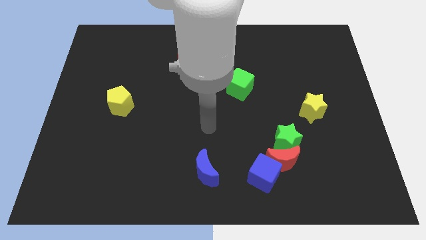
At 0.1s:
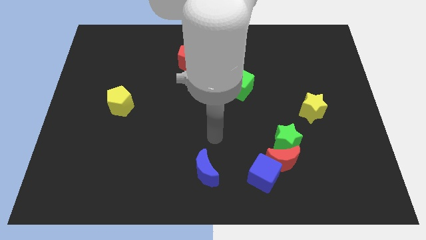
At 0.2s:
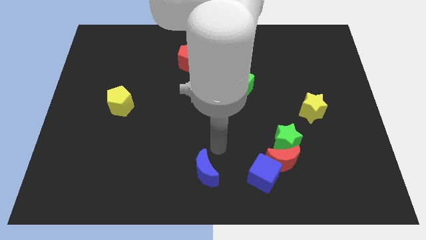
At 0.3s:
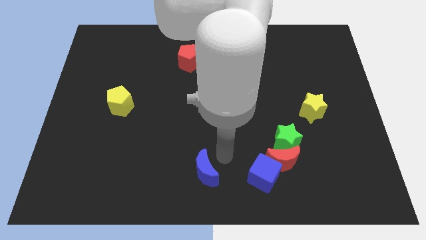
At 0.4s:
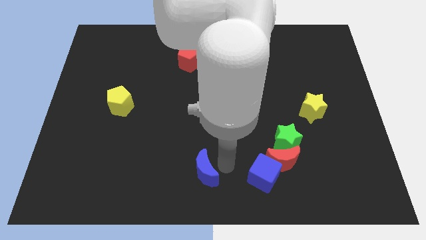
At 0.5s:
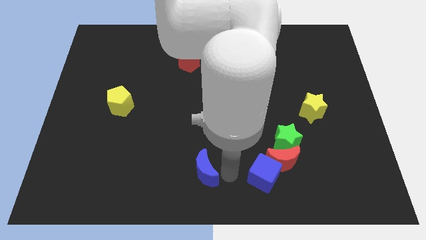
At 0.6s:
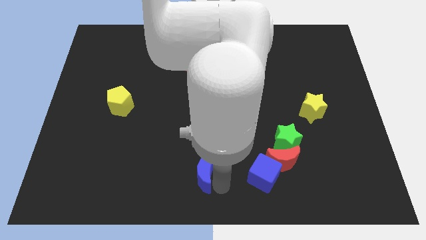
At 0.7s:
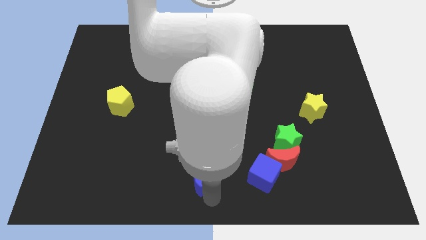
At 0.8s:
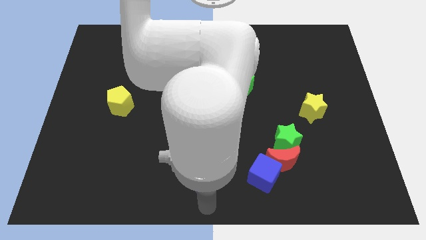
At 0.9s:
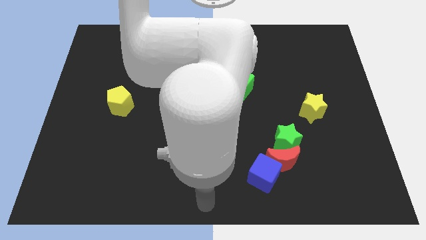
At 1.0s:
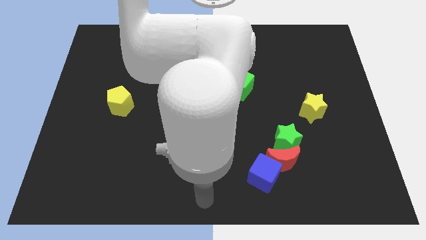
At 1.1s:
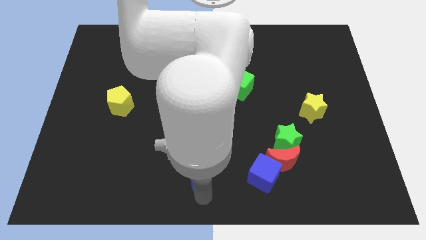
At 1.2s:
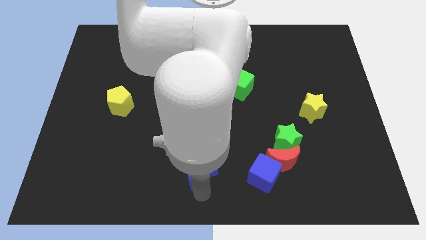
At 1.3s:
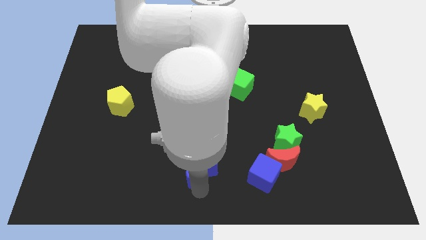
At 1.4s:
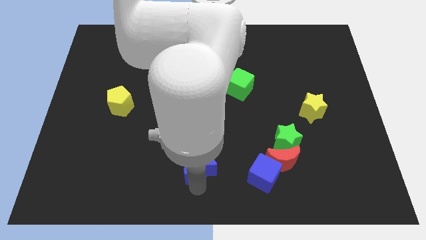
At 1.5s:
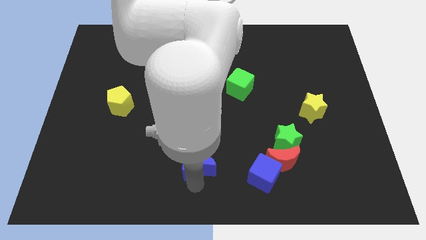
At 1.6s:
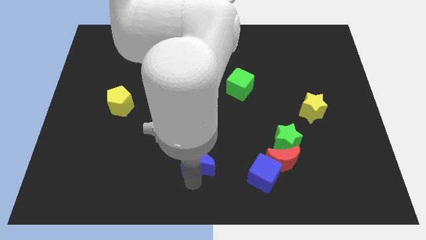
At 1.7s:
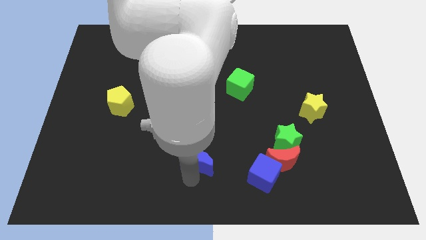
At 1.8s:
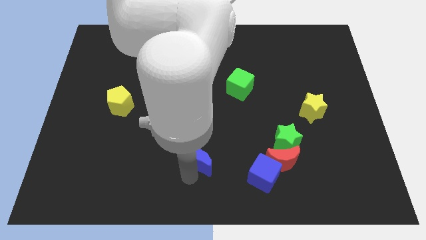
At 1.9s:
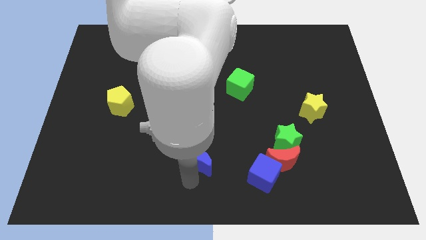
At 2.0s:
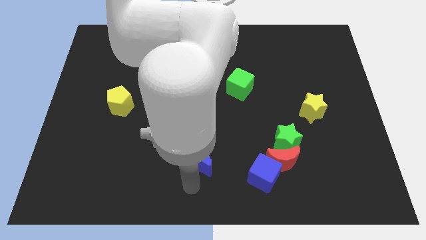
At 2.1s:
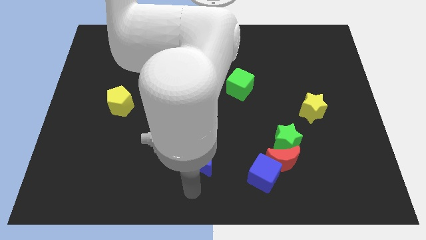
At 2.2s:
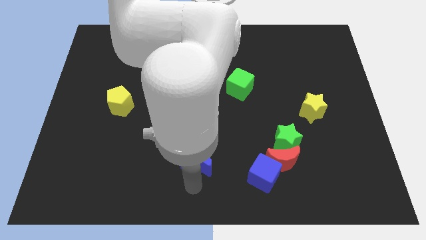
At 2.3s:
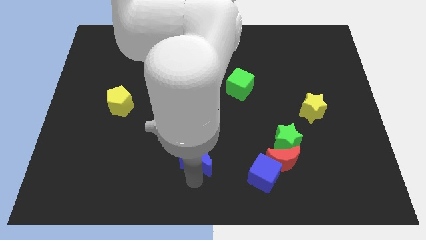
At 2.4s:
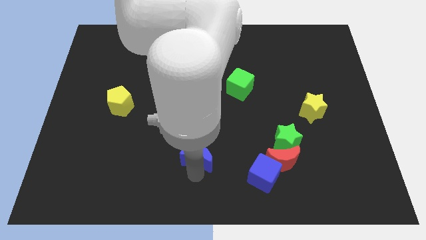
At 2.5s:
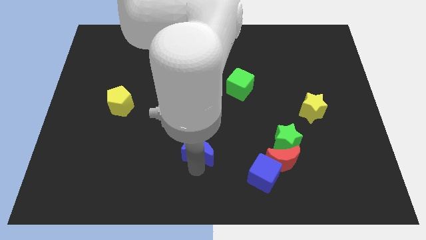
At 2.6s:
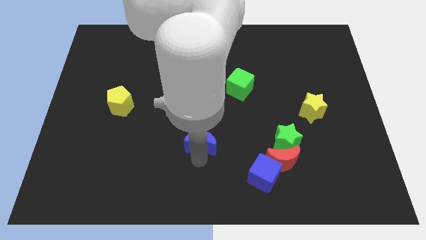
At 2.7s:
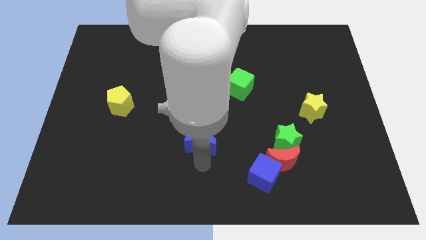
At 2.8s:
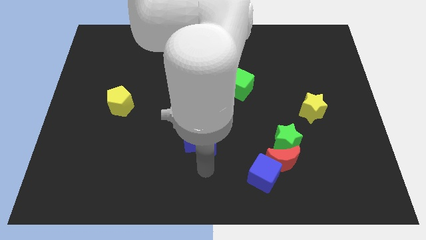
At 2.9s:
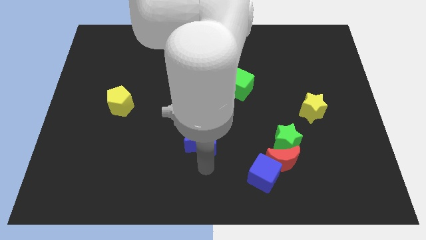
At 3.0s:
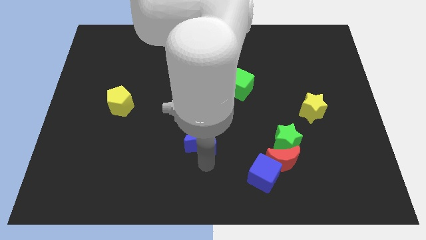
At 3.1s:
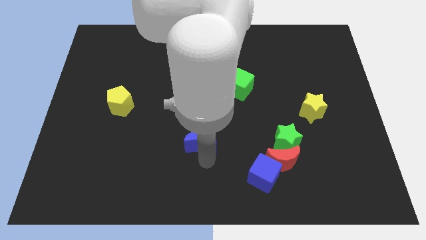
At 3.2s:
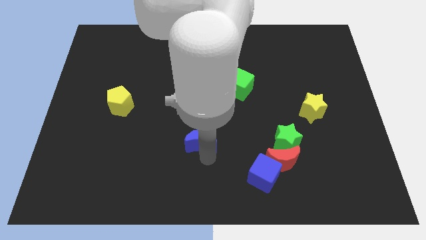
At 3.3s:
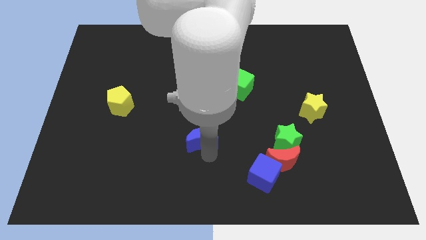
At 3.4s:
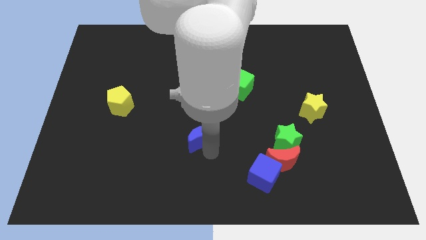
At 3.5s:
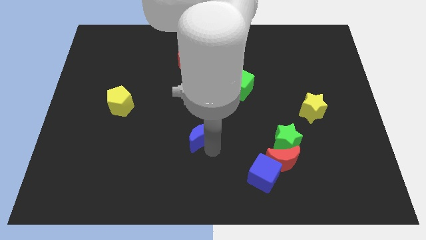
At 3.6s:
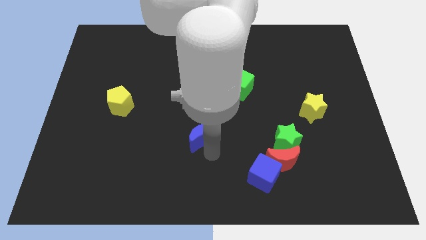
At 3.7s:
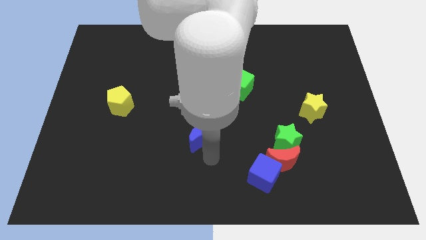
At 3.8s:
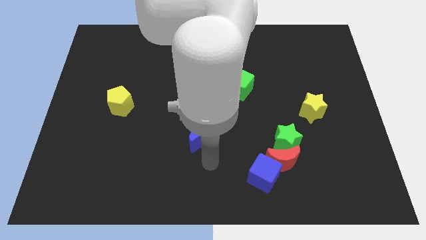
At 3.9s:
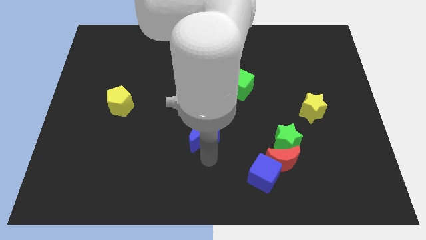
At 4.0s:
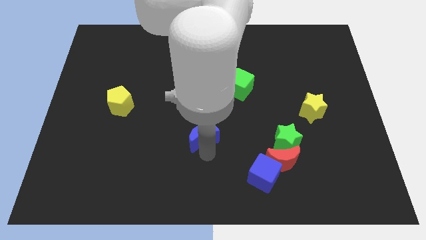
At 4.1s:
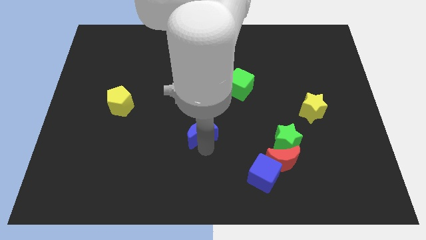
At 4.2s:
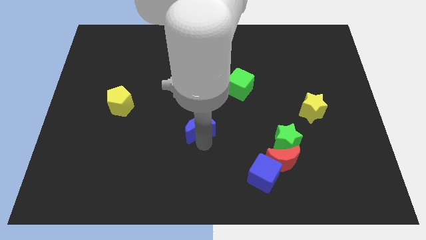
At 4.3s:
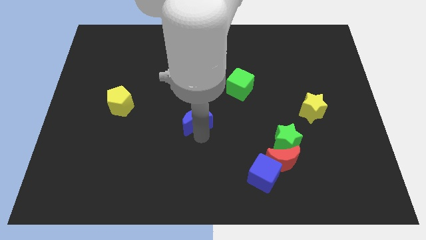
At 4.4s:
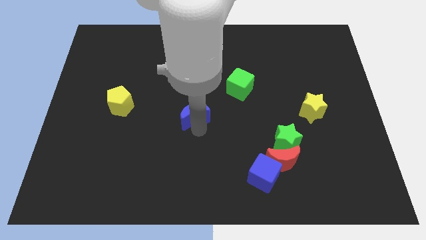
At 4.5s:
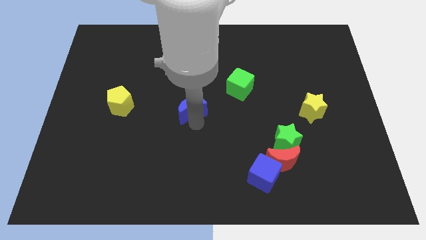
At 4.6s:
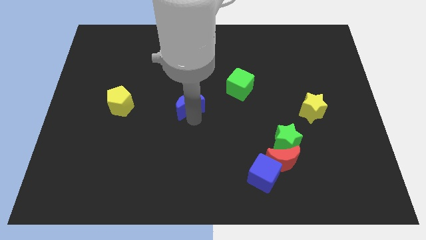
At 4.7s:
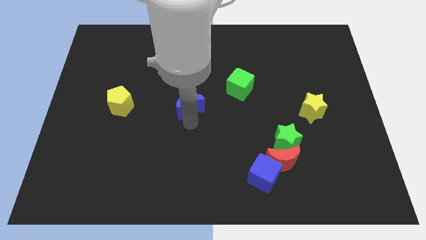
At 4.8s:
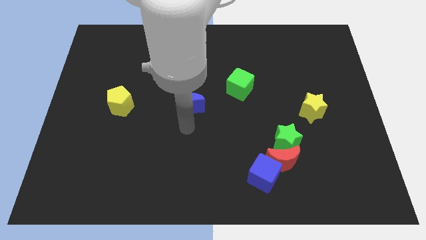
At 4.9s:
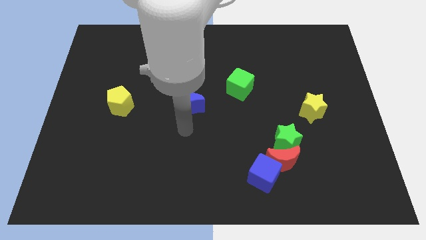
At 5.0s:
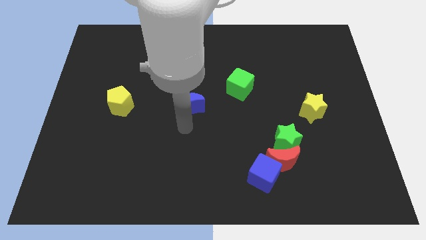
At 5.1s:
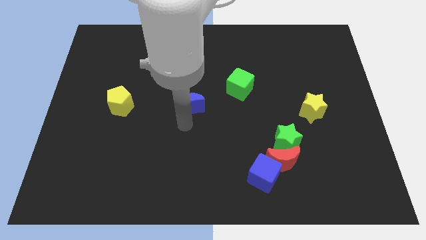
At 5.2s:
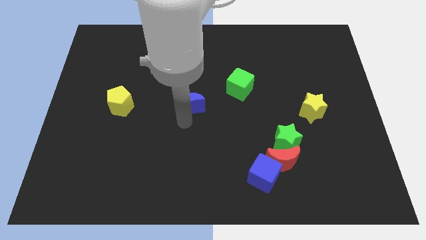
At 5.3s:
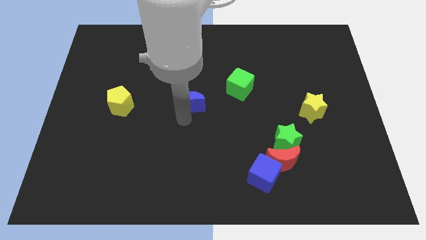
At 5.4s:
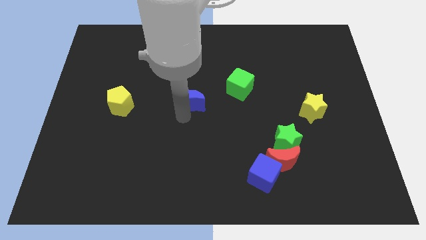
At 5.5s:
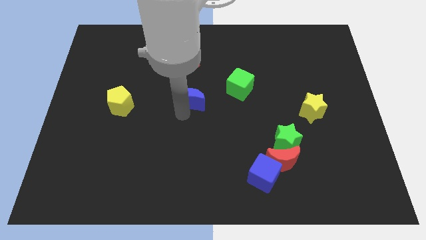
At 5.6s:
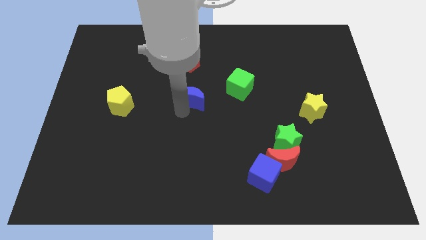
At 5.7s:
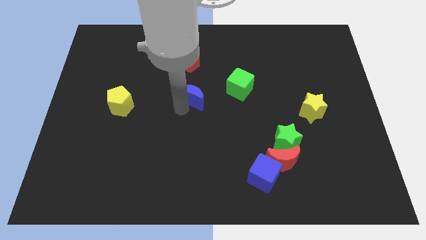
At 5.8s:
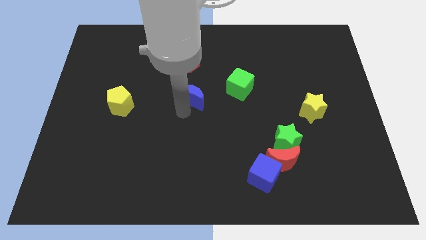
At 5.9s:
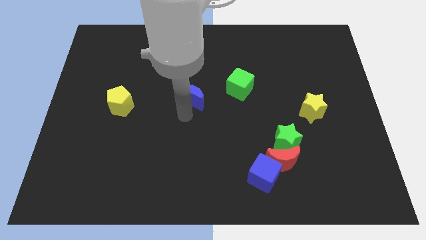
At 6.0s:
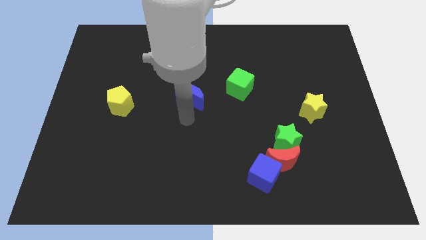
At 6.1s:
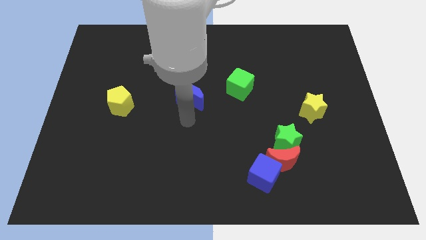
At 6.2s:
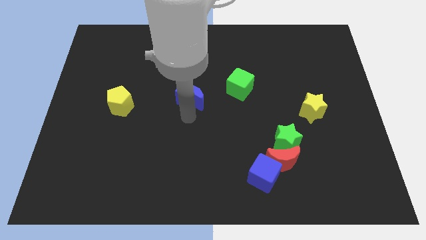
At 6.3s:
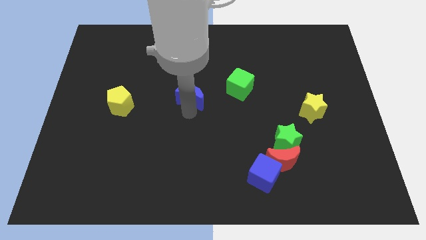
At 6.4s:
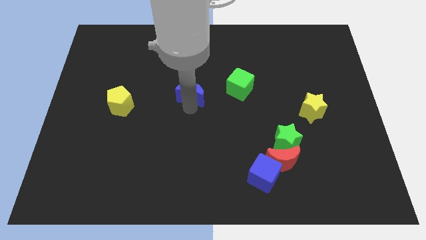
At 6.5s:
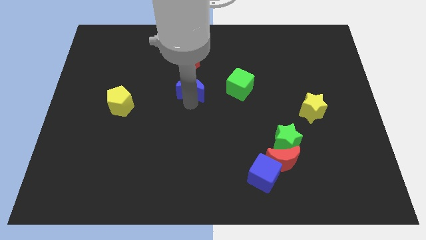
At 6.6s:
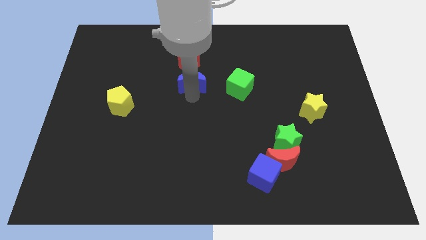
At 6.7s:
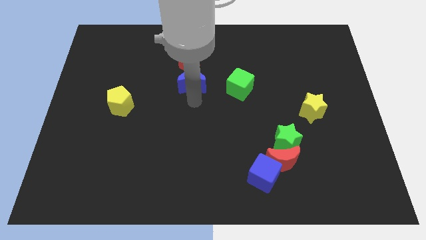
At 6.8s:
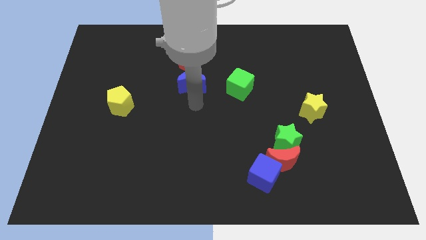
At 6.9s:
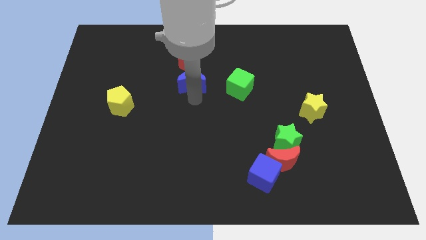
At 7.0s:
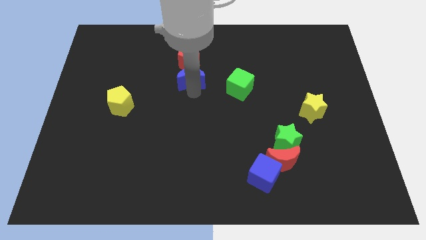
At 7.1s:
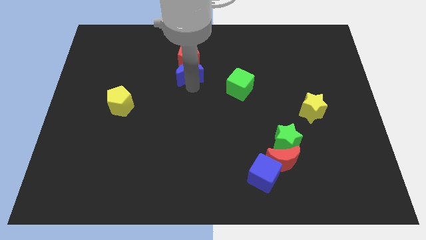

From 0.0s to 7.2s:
move the blue moon to the red pentagon

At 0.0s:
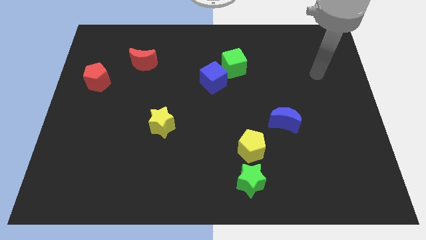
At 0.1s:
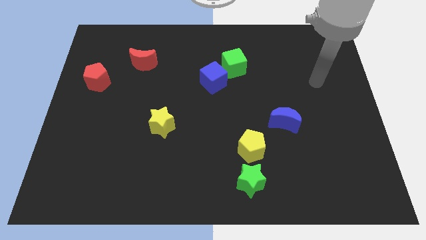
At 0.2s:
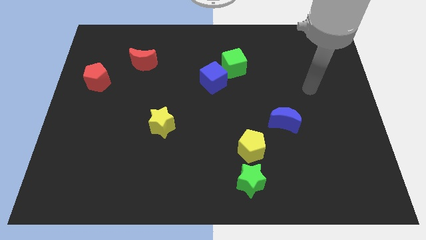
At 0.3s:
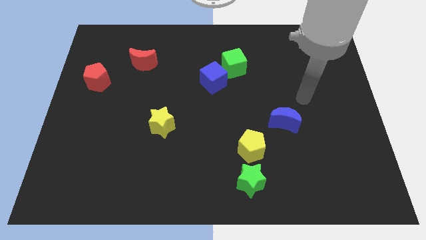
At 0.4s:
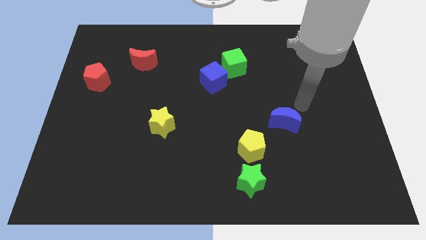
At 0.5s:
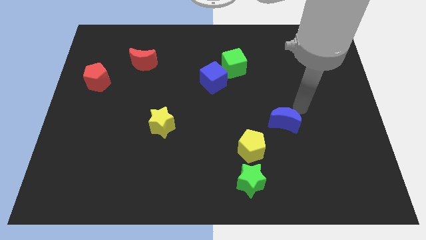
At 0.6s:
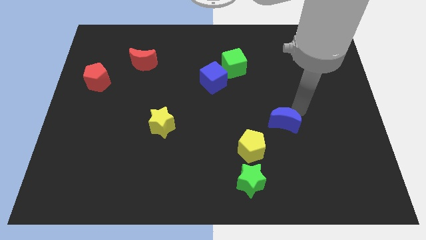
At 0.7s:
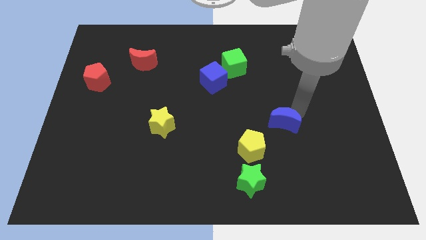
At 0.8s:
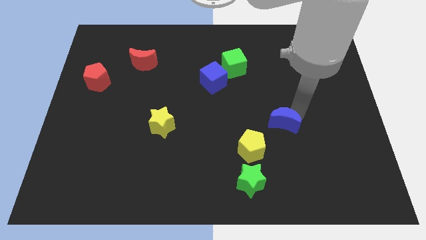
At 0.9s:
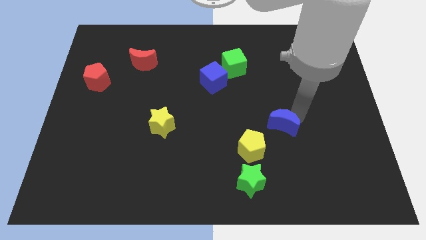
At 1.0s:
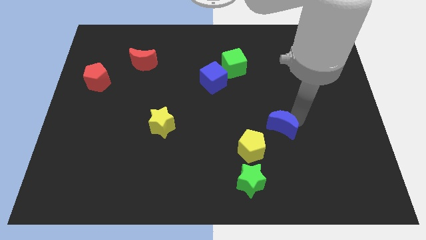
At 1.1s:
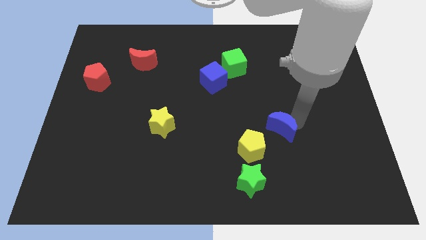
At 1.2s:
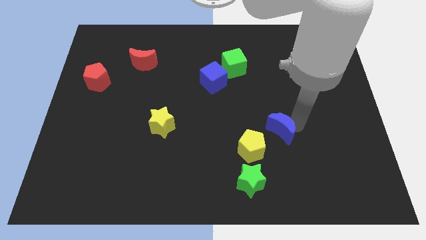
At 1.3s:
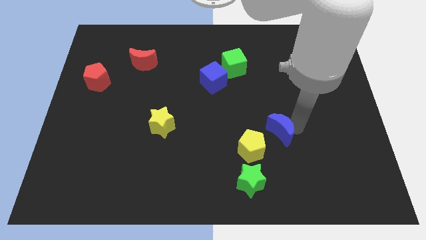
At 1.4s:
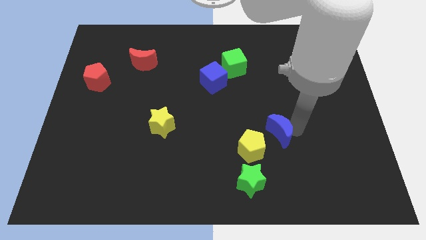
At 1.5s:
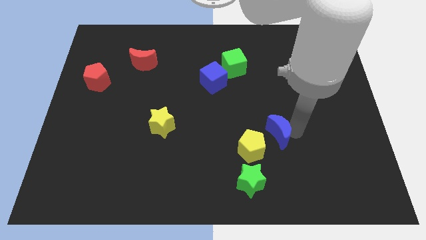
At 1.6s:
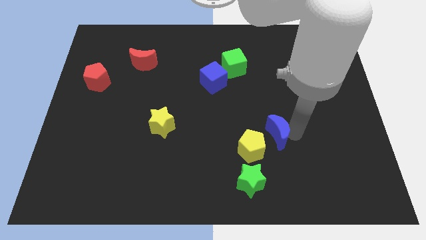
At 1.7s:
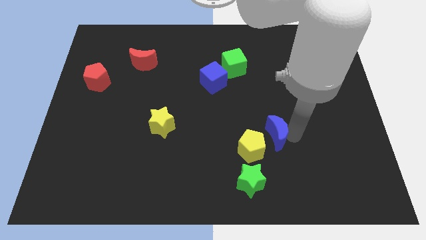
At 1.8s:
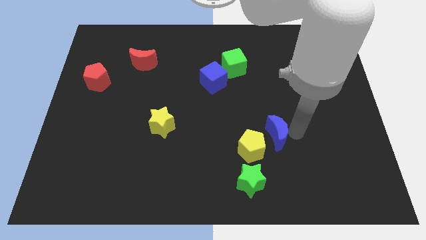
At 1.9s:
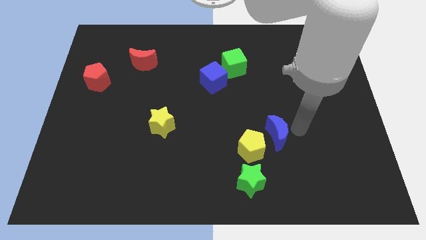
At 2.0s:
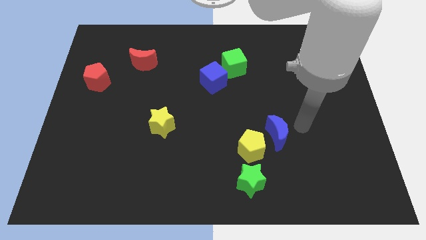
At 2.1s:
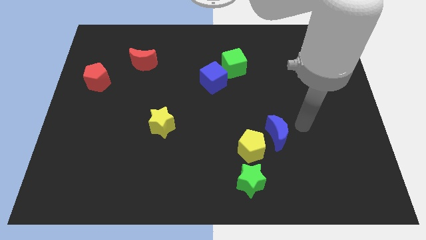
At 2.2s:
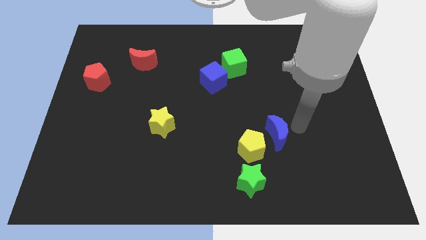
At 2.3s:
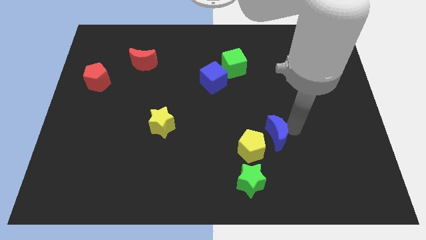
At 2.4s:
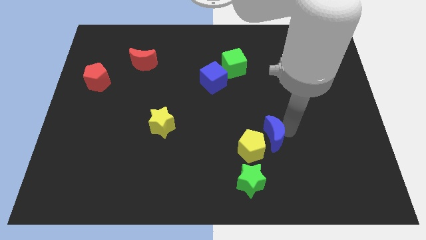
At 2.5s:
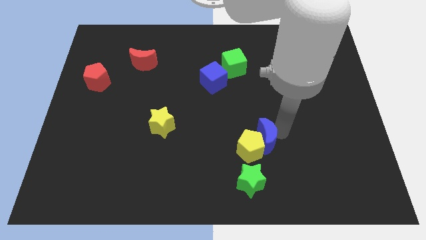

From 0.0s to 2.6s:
push the blue moon next to the yellow pentagon
